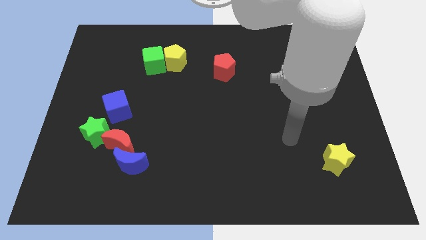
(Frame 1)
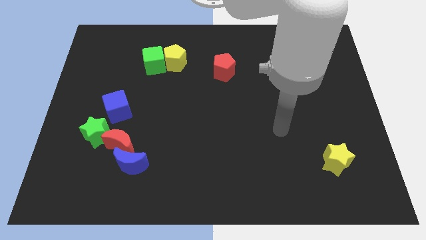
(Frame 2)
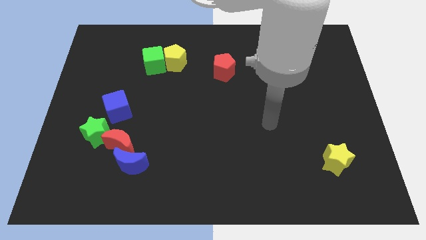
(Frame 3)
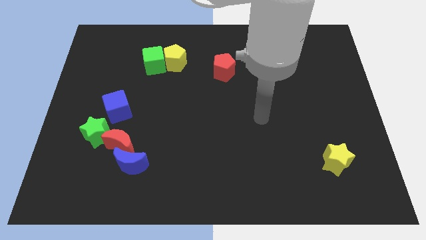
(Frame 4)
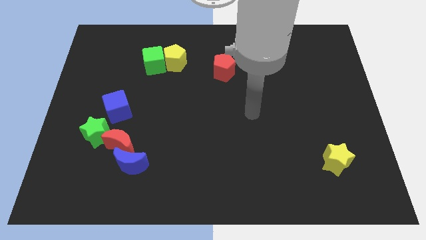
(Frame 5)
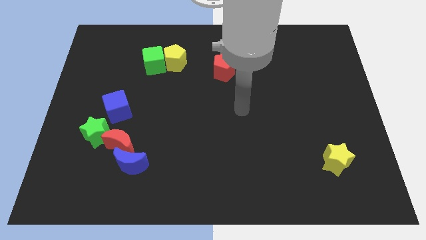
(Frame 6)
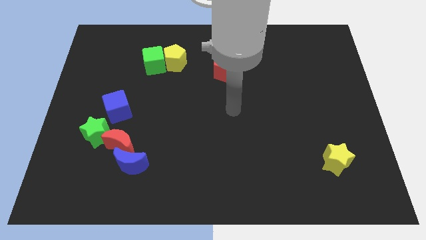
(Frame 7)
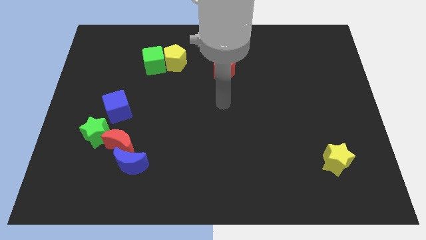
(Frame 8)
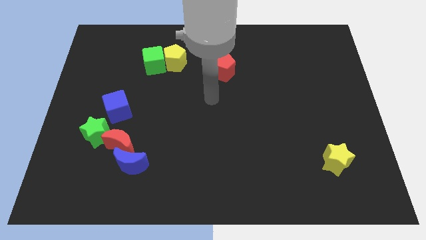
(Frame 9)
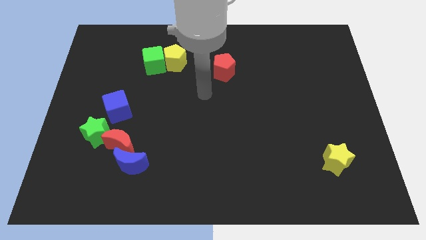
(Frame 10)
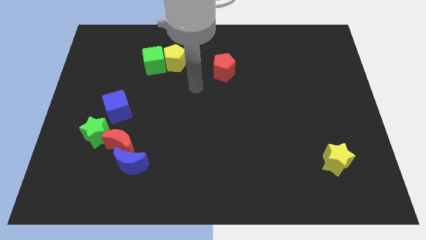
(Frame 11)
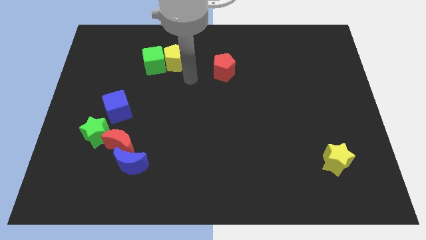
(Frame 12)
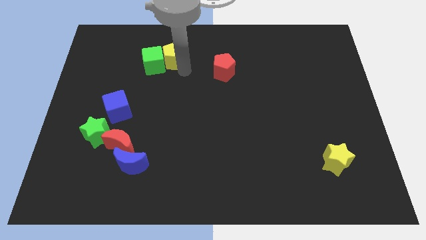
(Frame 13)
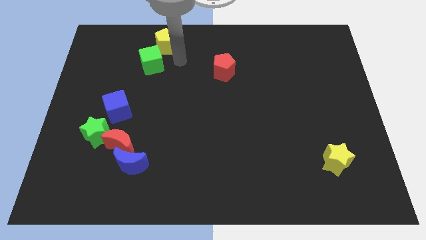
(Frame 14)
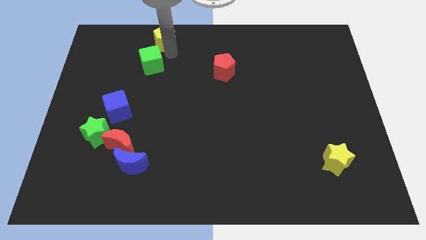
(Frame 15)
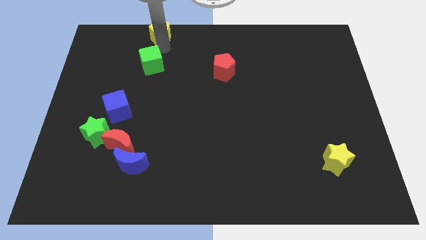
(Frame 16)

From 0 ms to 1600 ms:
separate the green cube from the yellow pentagon

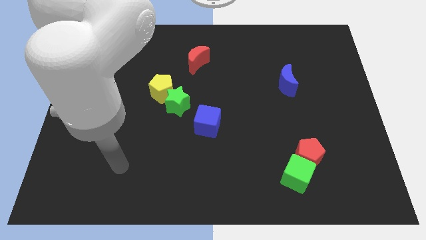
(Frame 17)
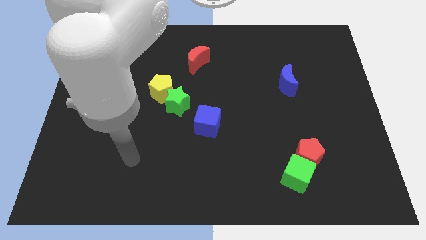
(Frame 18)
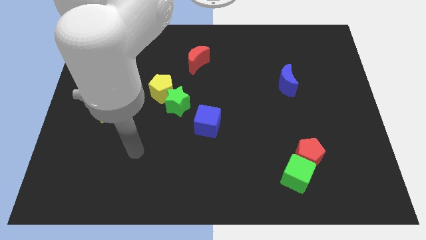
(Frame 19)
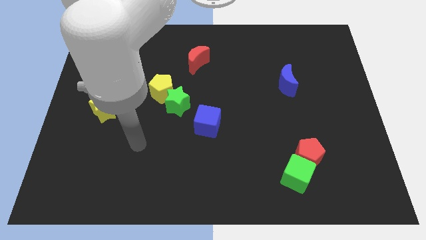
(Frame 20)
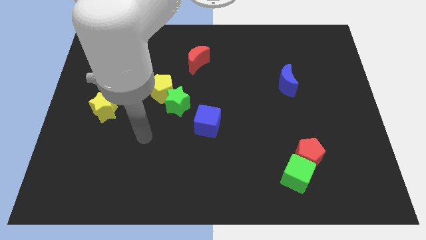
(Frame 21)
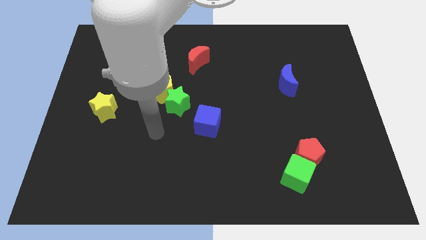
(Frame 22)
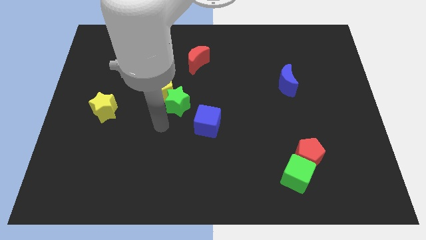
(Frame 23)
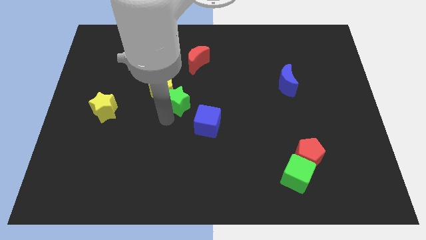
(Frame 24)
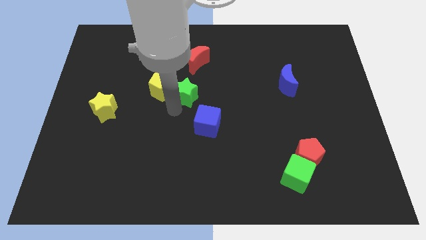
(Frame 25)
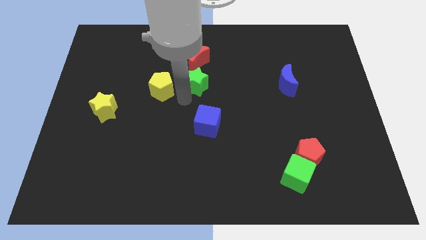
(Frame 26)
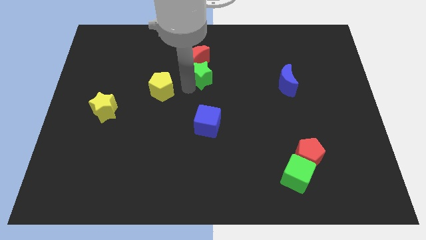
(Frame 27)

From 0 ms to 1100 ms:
move the yellow pentagon away from the green star

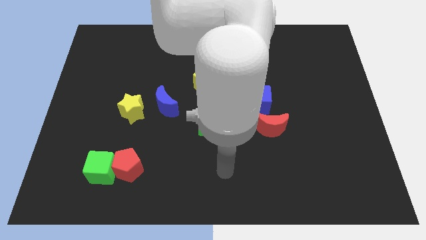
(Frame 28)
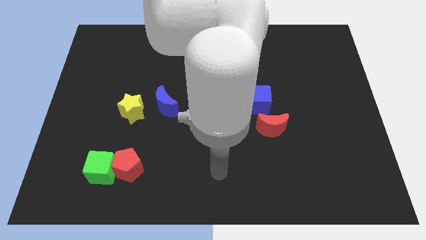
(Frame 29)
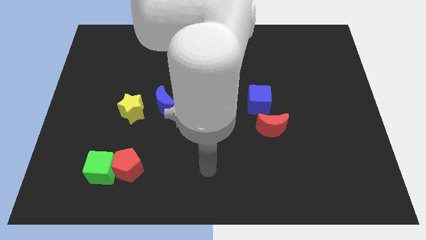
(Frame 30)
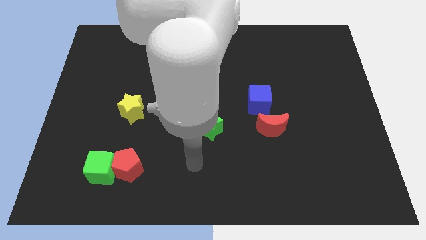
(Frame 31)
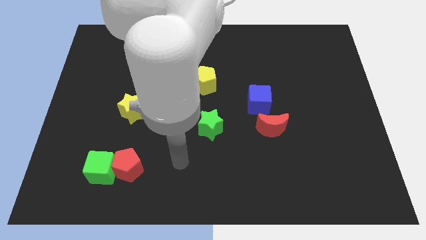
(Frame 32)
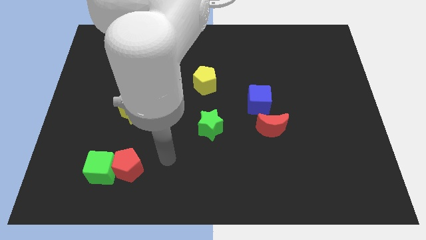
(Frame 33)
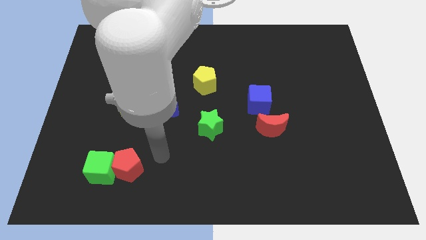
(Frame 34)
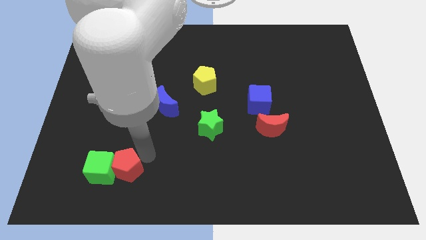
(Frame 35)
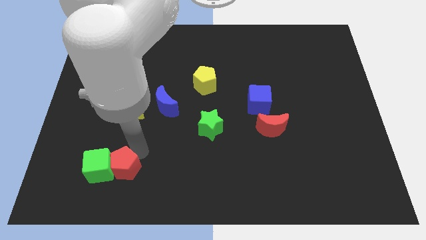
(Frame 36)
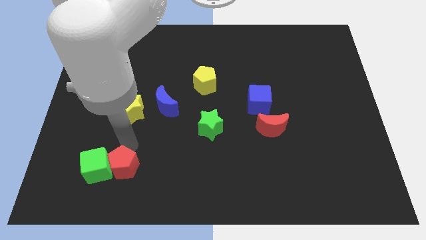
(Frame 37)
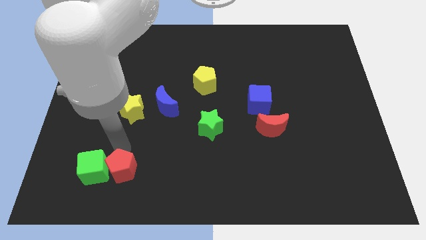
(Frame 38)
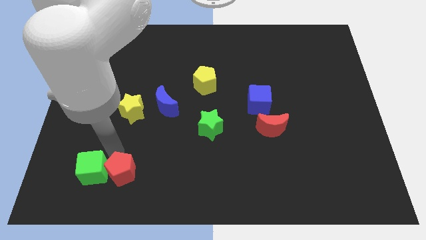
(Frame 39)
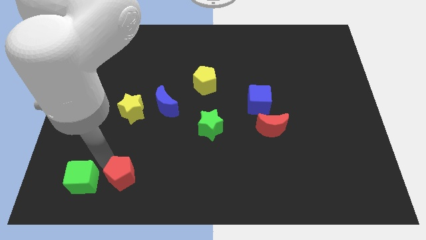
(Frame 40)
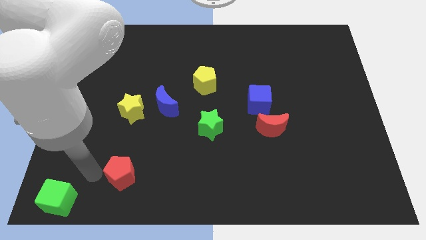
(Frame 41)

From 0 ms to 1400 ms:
separate the red pentagon from the green cube

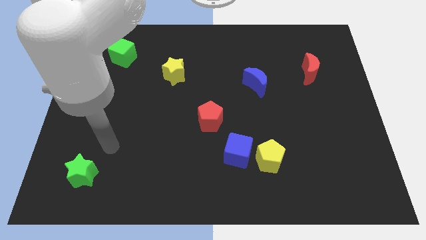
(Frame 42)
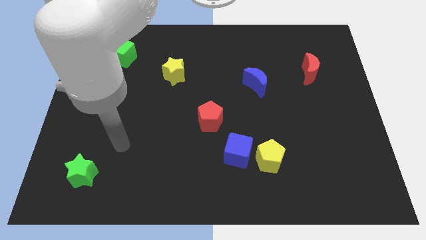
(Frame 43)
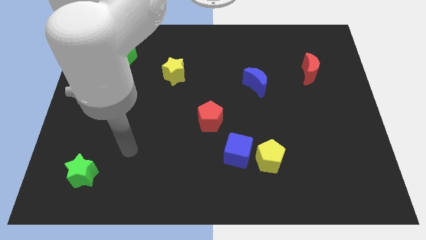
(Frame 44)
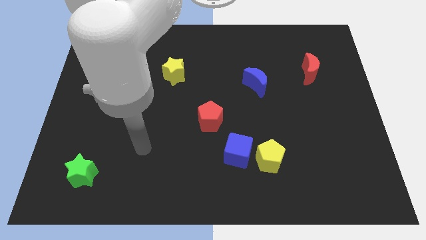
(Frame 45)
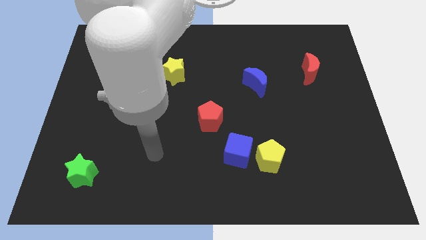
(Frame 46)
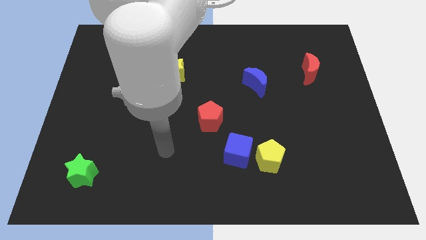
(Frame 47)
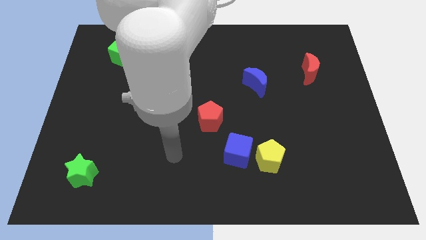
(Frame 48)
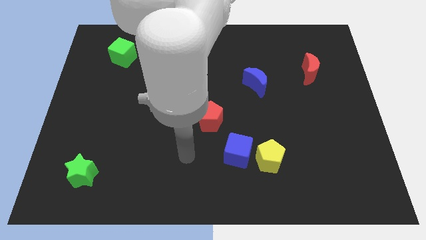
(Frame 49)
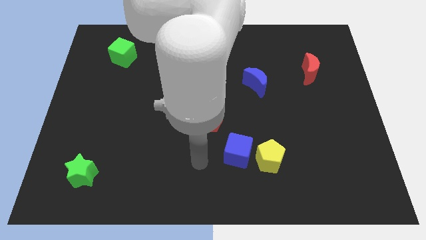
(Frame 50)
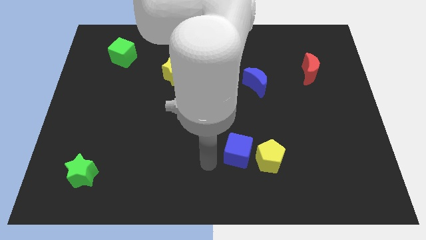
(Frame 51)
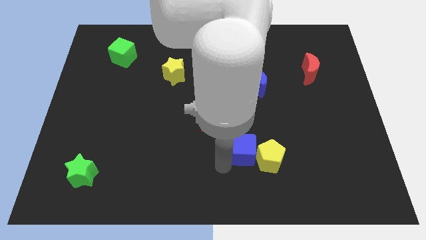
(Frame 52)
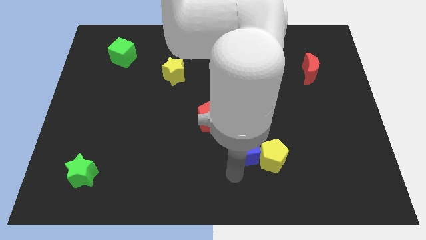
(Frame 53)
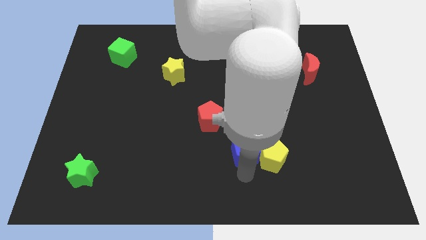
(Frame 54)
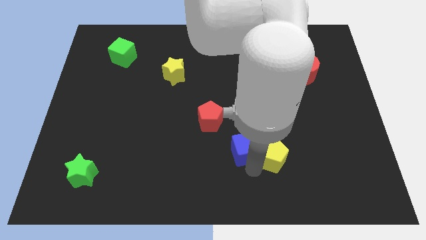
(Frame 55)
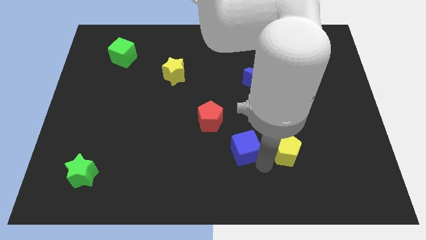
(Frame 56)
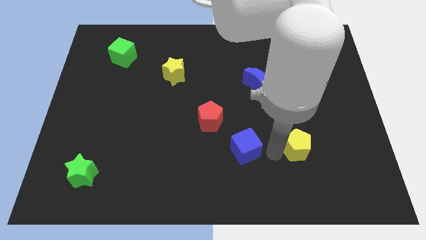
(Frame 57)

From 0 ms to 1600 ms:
separate the blue cube from the yellow pentagon

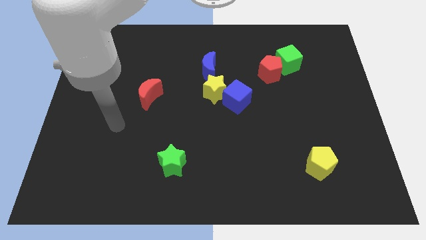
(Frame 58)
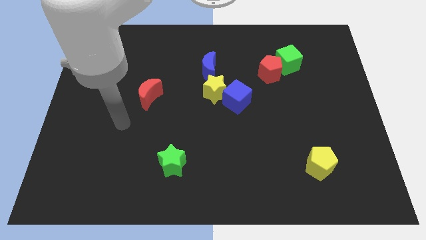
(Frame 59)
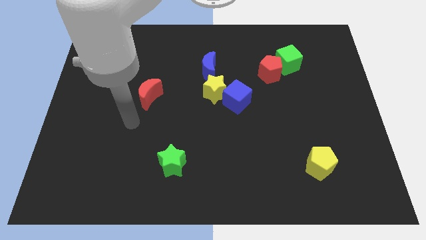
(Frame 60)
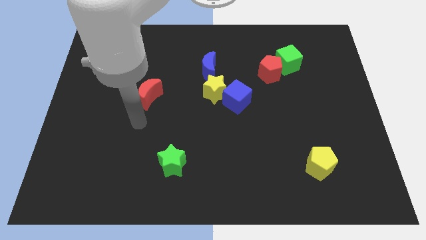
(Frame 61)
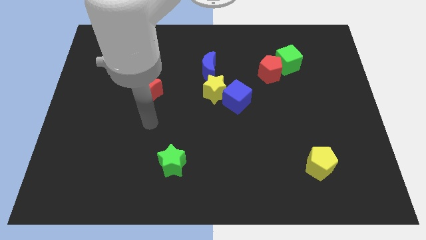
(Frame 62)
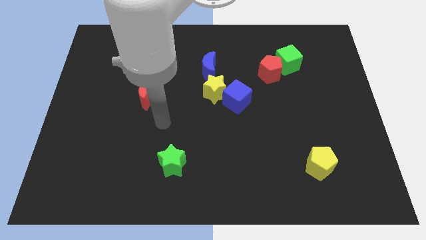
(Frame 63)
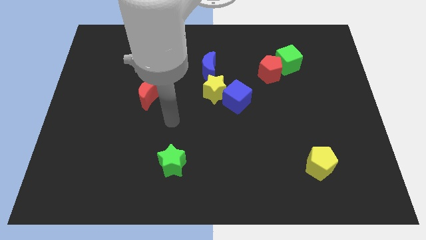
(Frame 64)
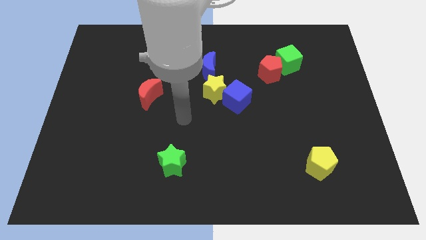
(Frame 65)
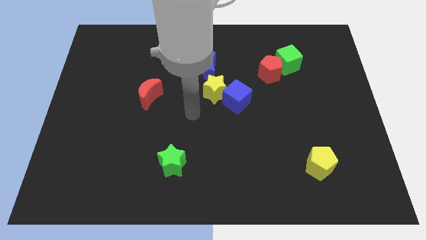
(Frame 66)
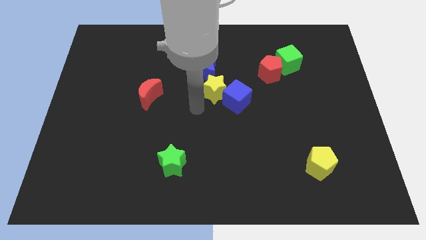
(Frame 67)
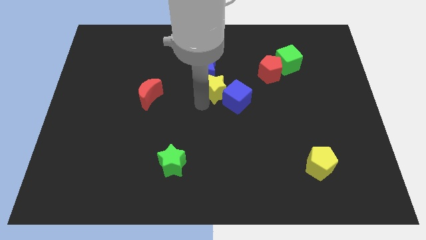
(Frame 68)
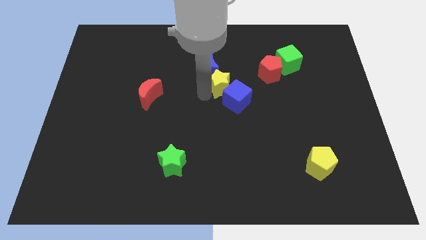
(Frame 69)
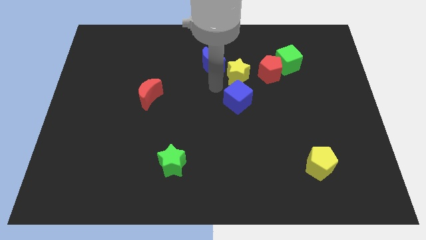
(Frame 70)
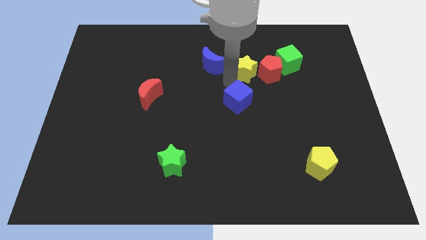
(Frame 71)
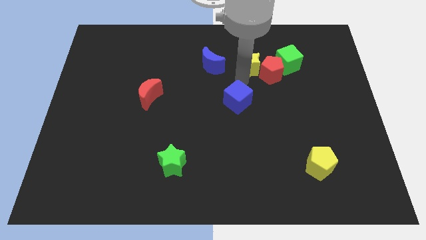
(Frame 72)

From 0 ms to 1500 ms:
pull the blue cube apart from the yellow star

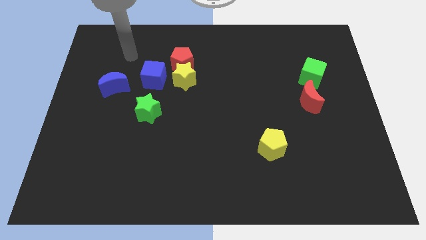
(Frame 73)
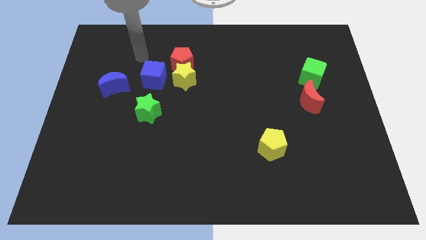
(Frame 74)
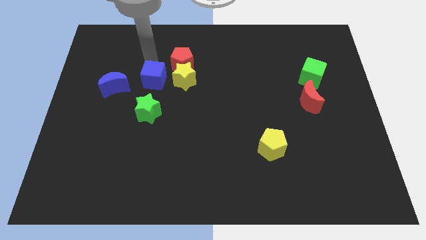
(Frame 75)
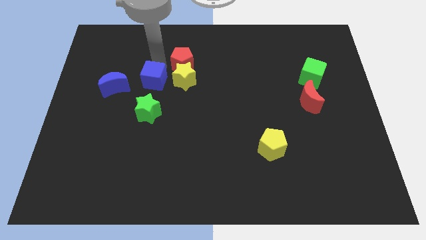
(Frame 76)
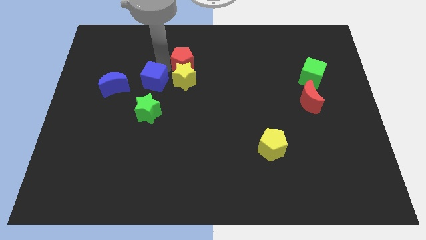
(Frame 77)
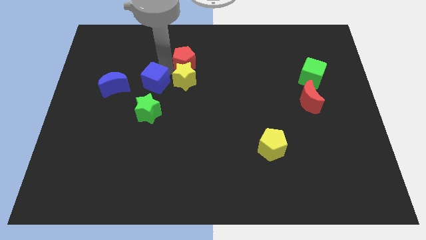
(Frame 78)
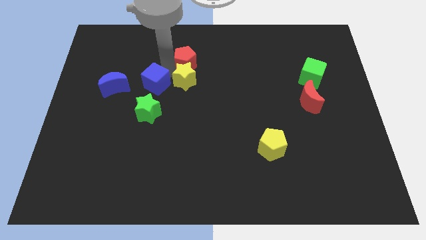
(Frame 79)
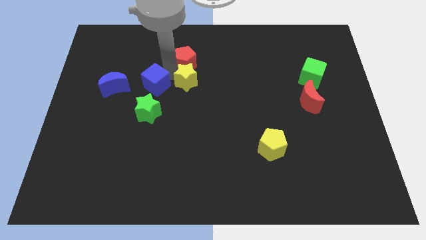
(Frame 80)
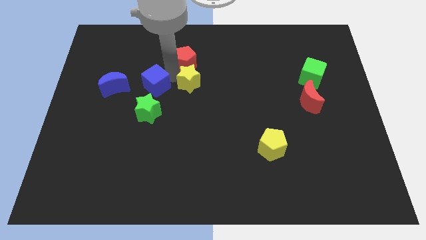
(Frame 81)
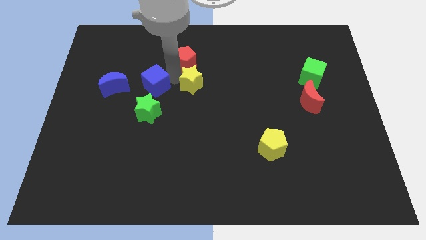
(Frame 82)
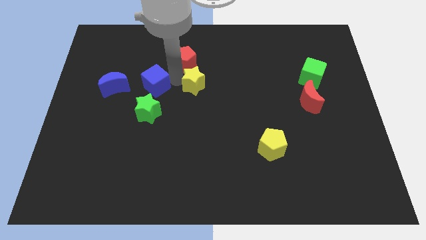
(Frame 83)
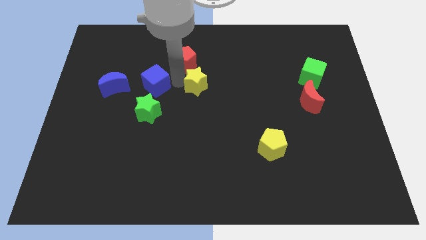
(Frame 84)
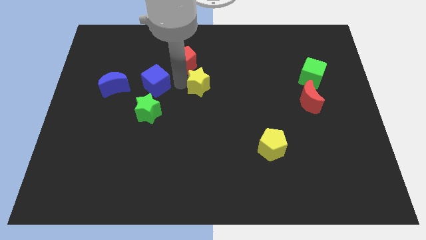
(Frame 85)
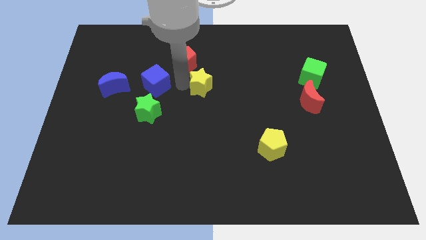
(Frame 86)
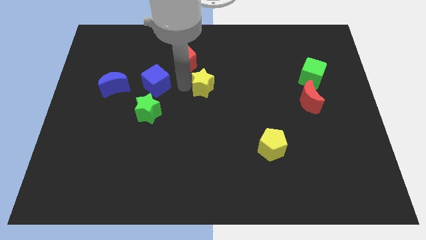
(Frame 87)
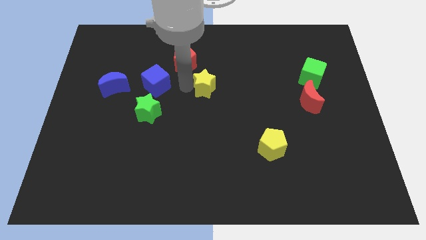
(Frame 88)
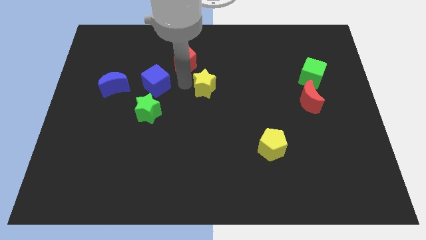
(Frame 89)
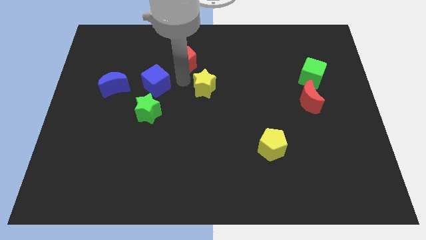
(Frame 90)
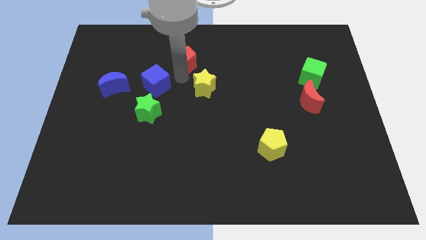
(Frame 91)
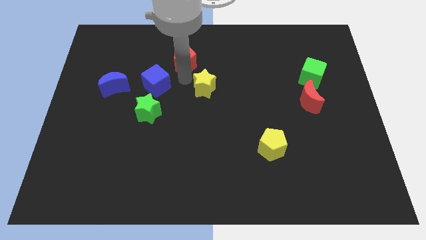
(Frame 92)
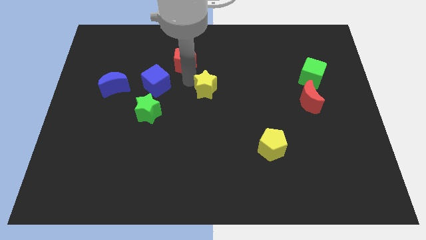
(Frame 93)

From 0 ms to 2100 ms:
move the yellow star away from the red pentagon and blue cube
